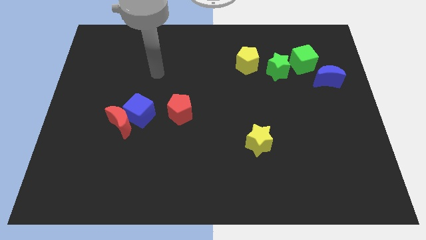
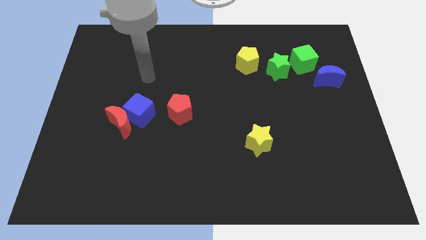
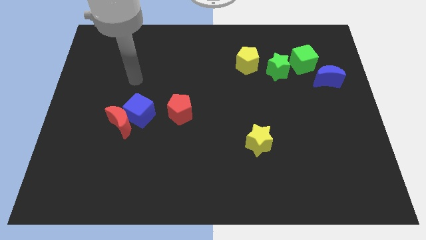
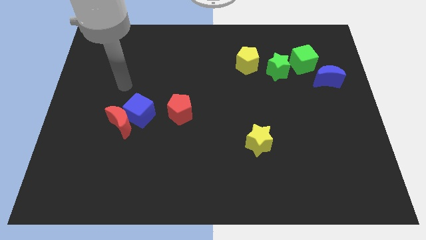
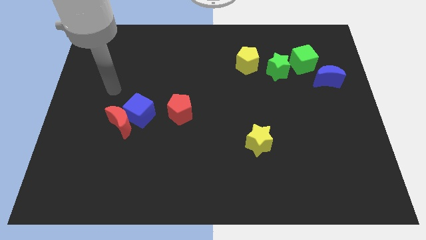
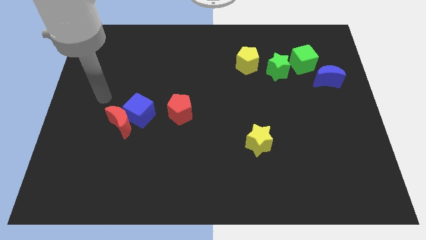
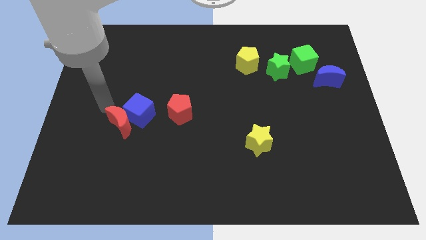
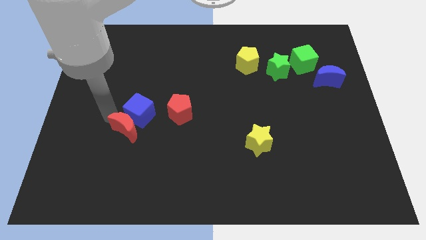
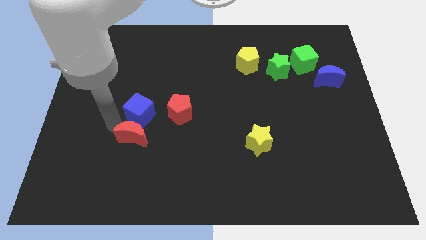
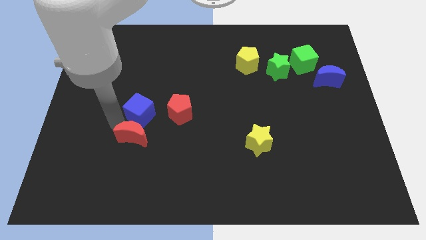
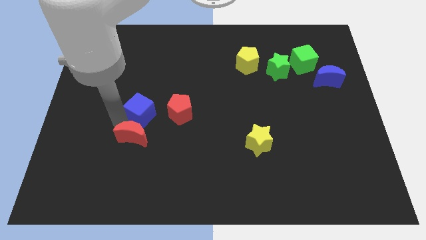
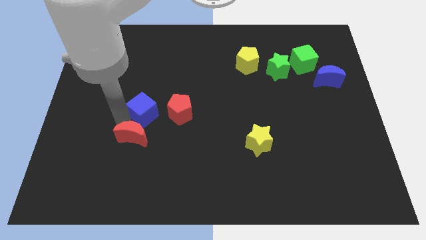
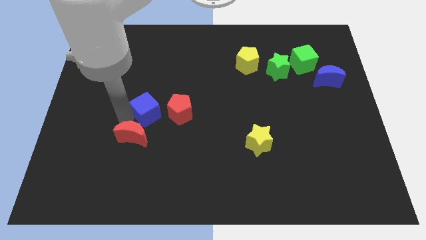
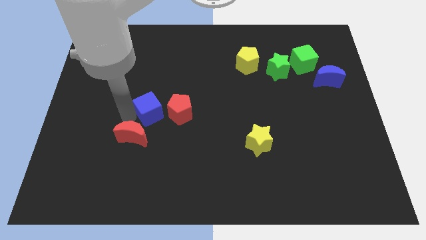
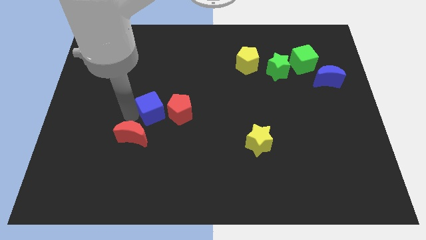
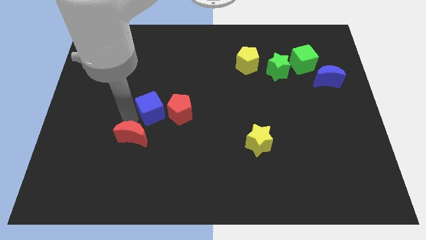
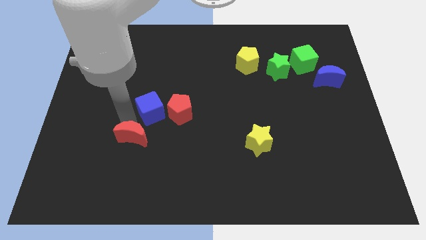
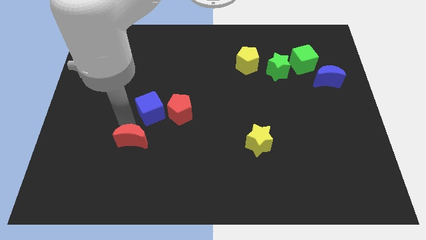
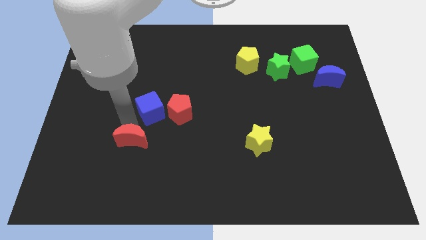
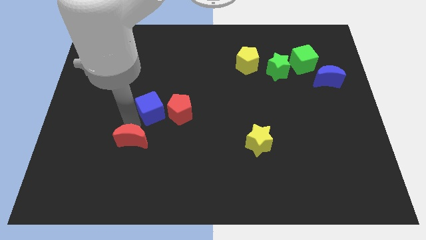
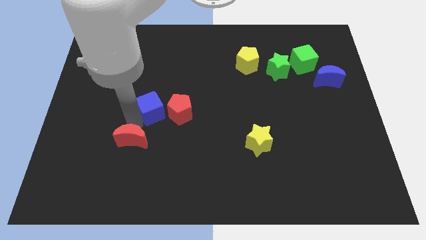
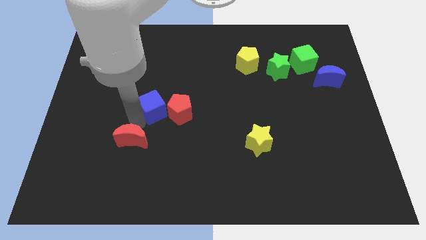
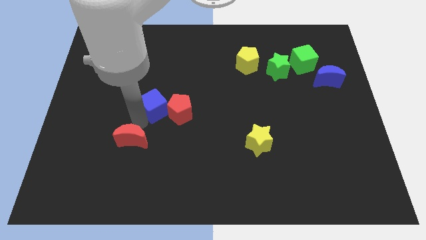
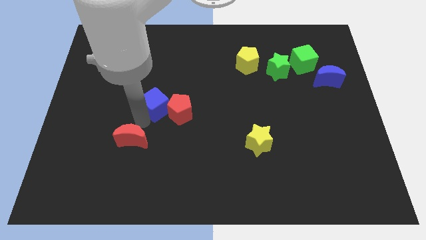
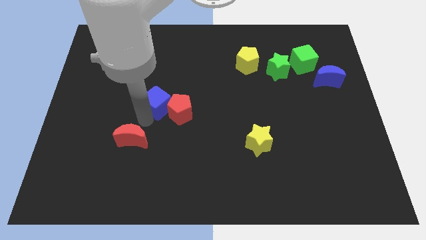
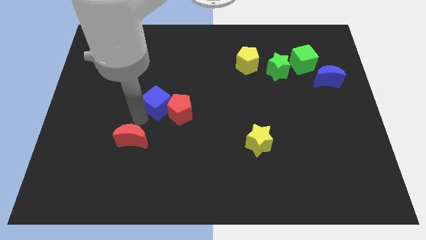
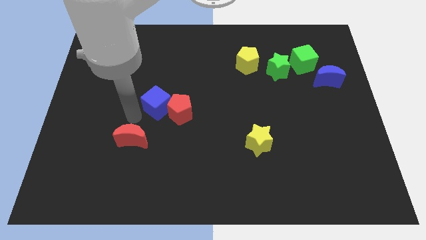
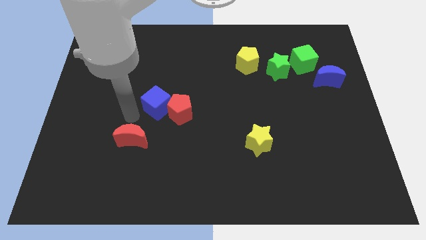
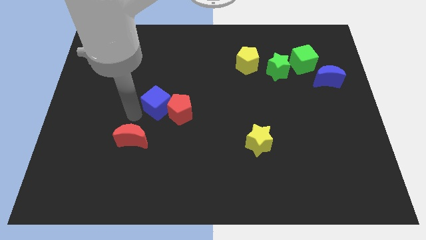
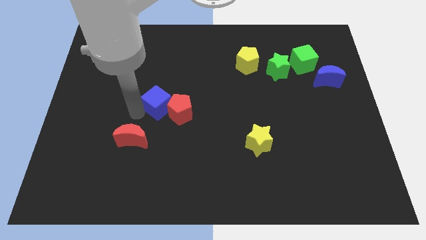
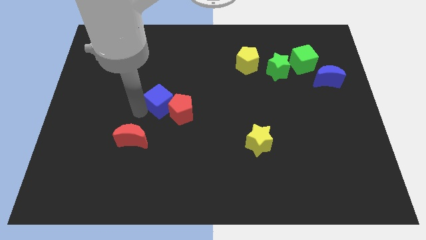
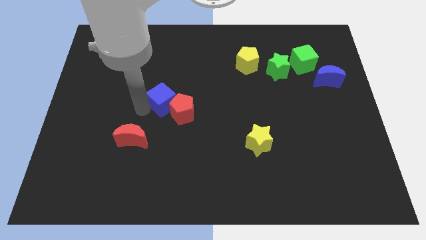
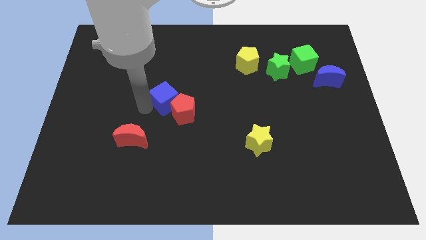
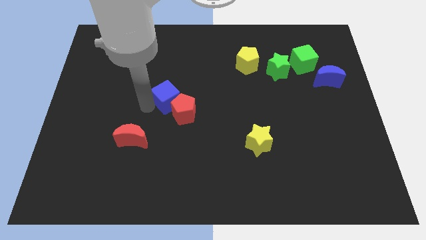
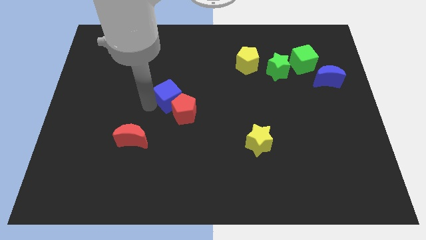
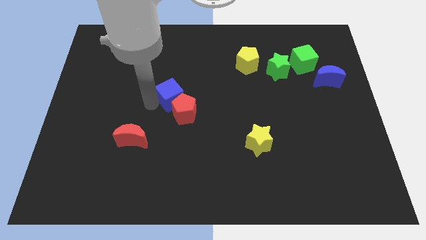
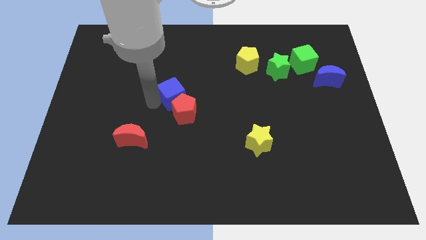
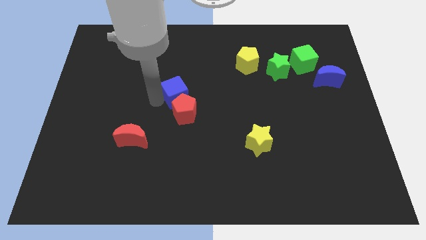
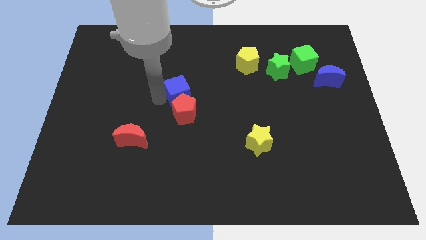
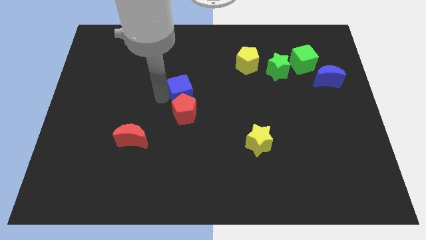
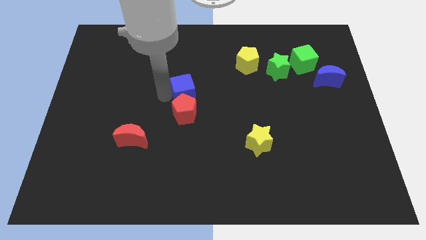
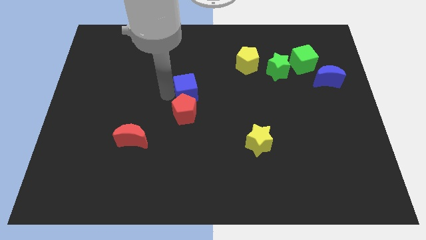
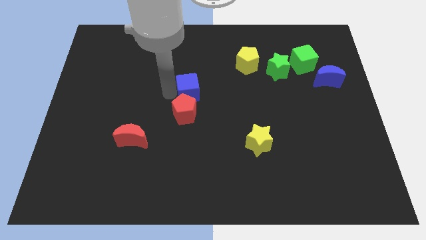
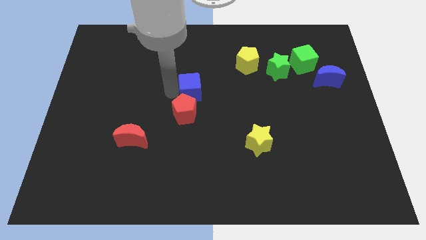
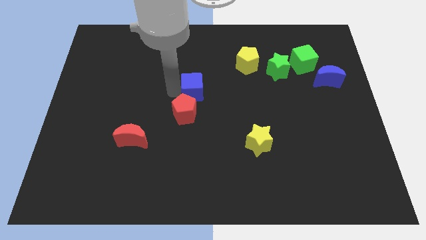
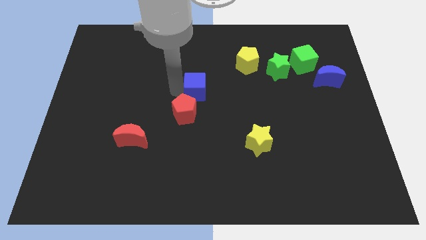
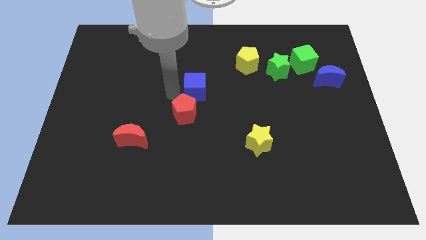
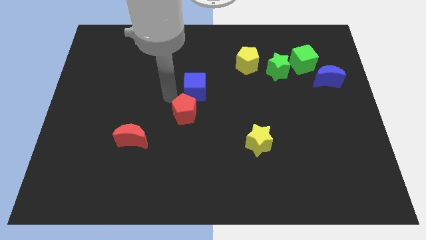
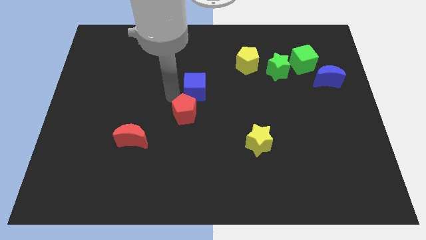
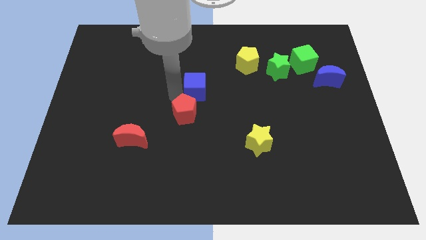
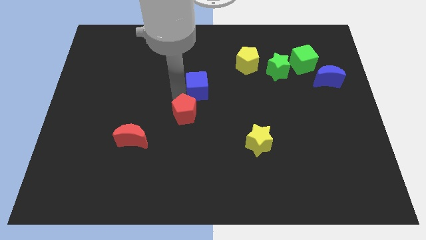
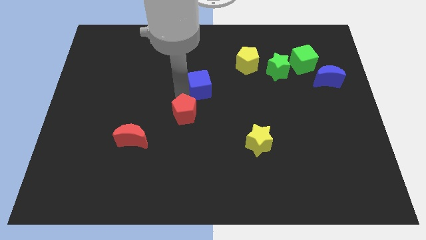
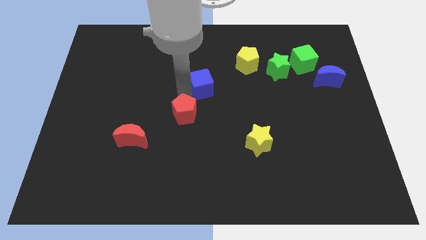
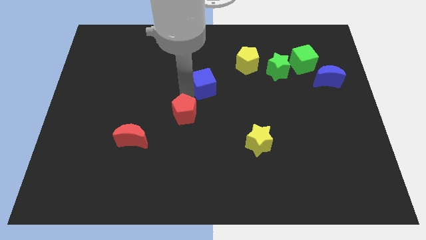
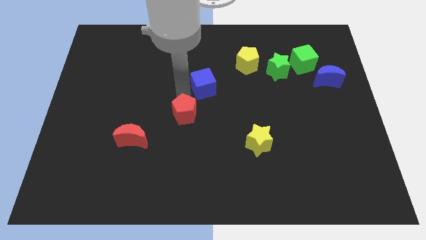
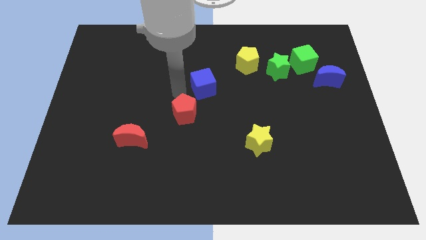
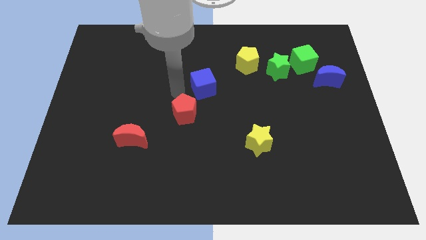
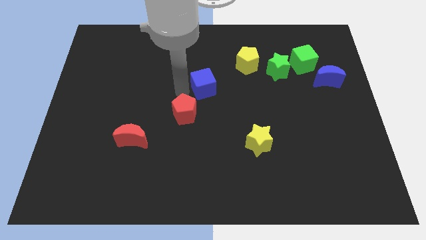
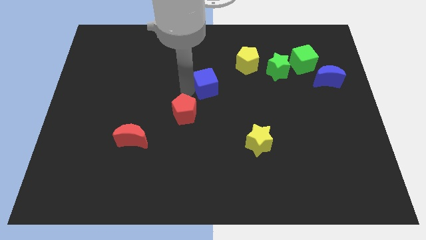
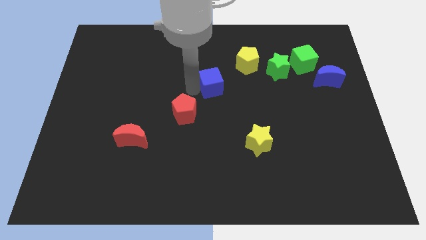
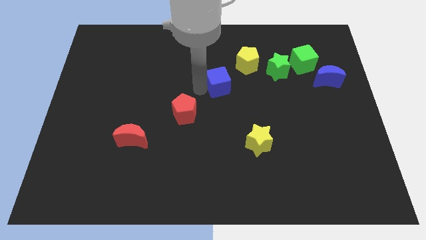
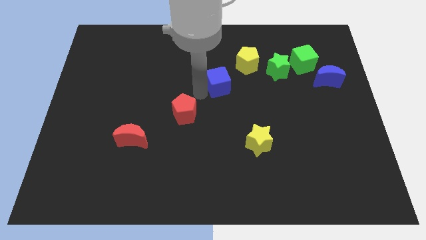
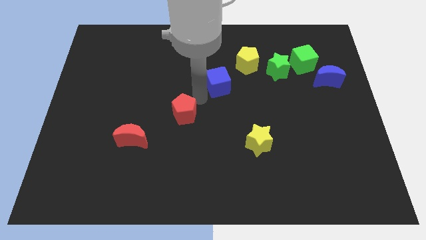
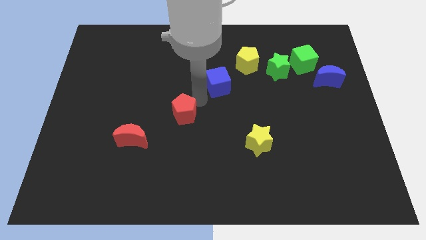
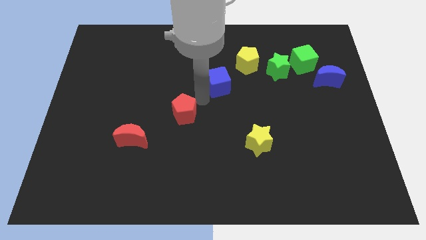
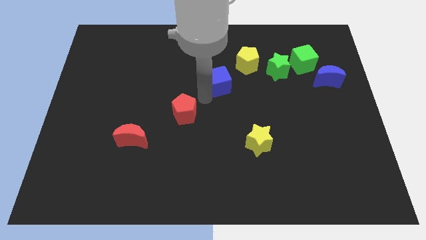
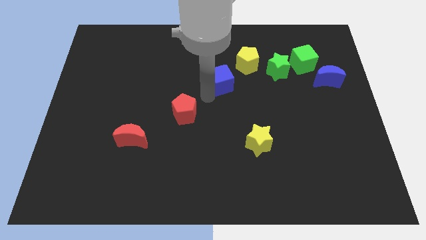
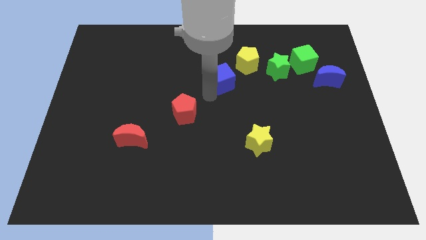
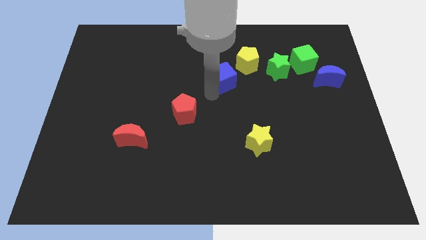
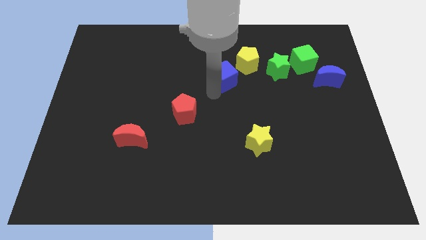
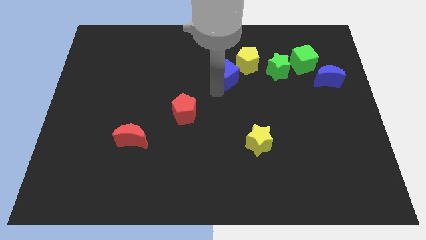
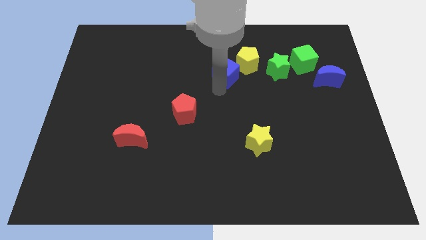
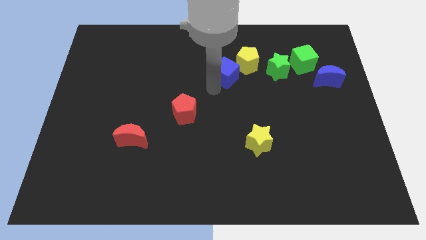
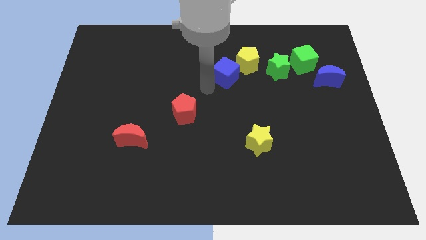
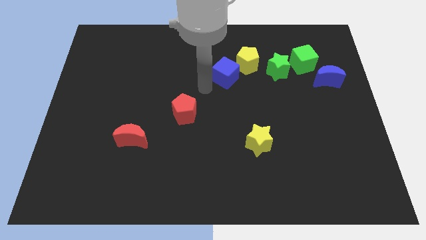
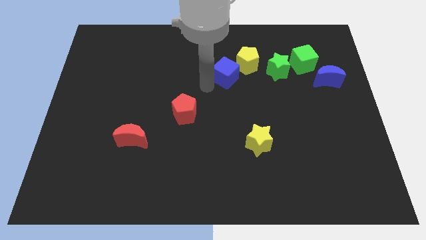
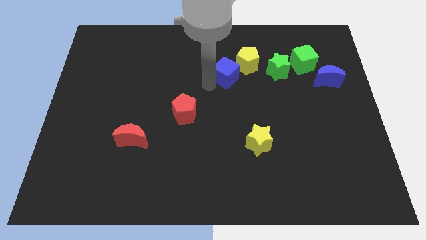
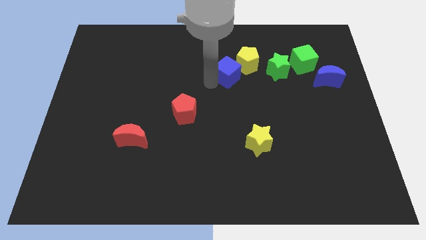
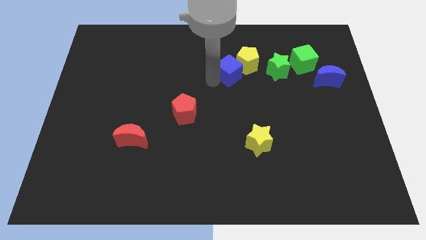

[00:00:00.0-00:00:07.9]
slide the blue cube next to the yellow pentagon
